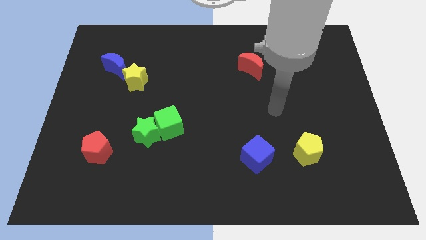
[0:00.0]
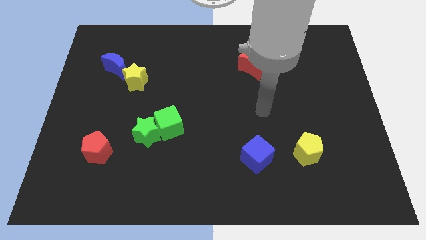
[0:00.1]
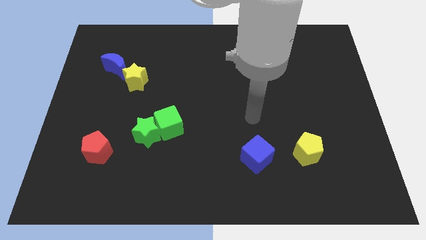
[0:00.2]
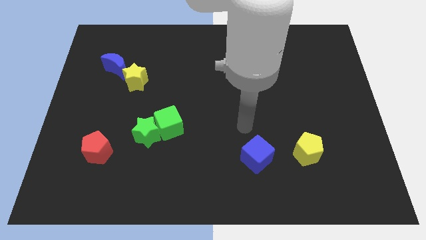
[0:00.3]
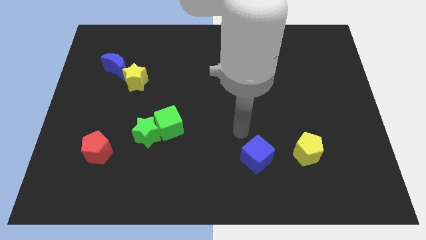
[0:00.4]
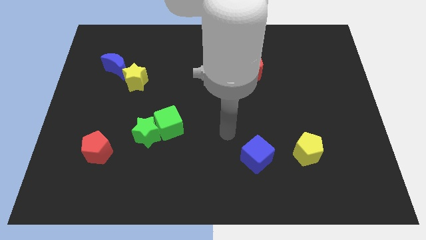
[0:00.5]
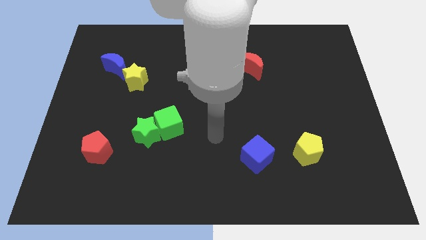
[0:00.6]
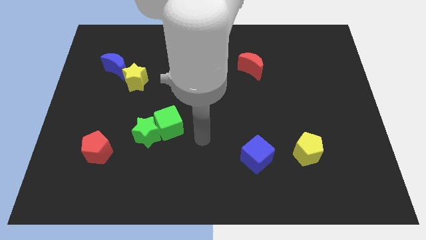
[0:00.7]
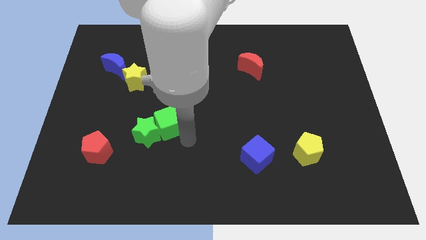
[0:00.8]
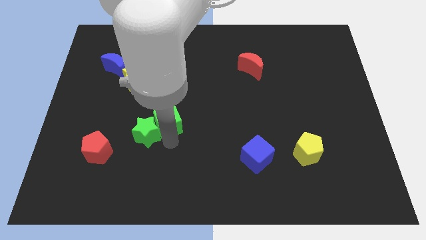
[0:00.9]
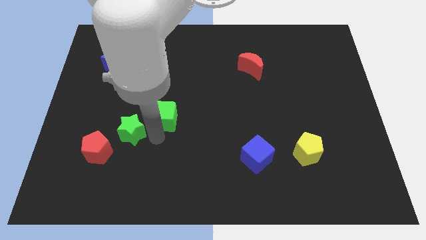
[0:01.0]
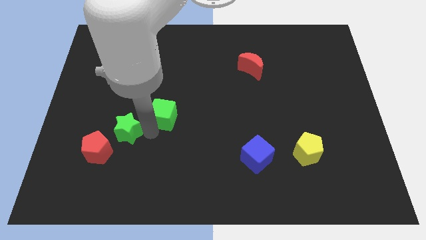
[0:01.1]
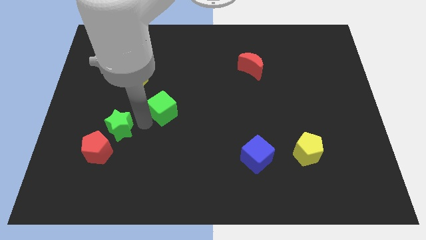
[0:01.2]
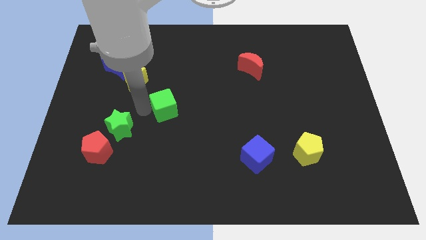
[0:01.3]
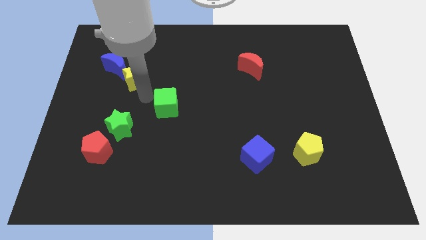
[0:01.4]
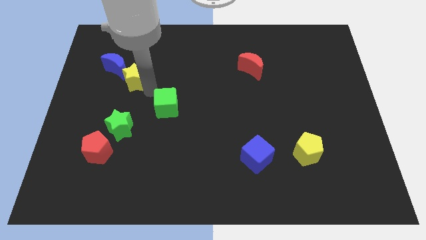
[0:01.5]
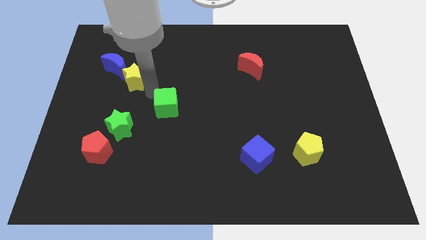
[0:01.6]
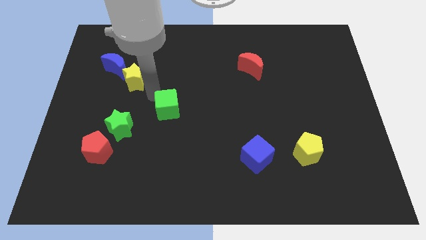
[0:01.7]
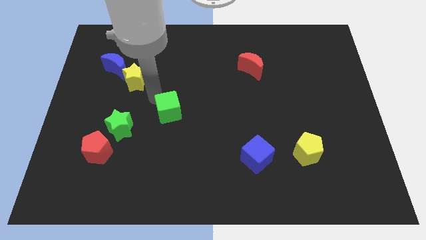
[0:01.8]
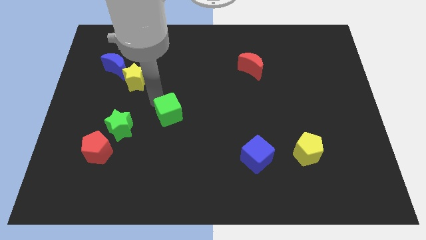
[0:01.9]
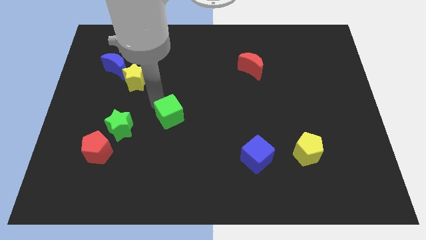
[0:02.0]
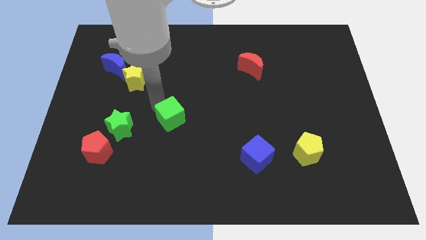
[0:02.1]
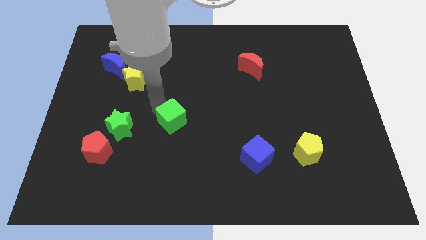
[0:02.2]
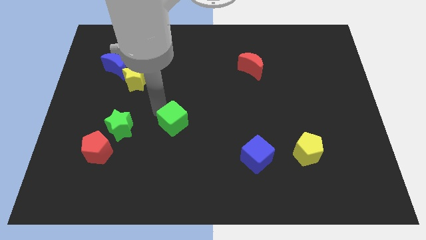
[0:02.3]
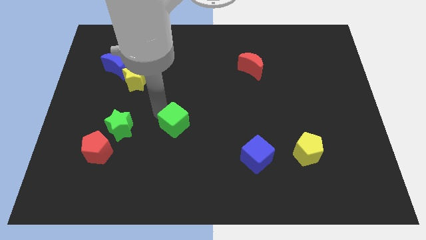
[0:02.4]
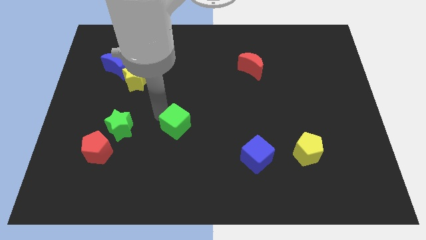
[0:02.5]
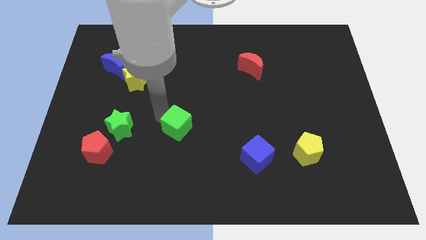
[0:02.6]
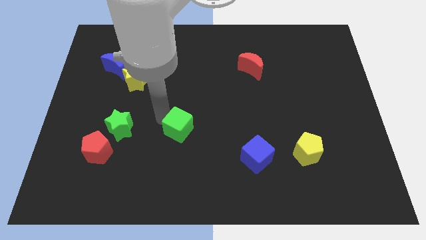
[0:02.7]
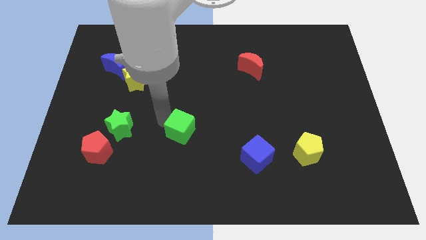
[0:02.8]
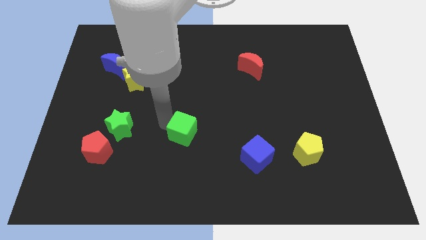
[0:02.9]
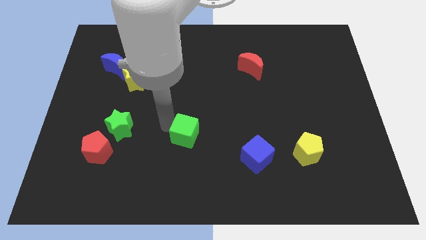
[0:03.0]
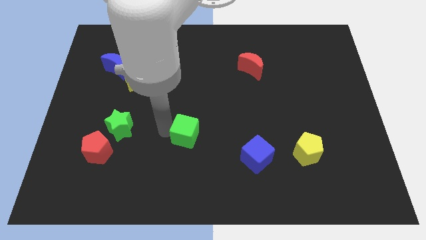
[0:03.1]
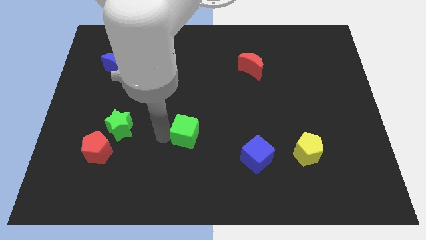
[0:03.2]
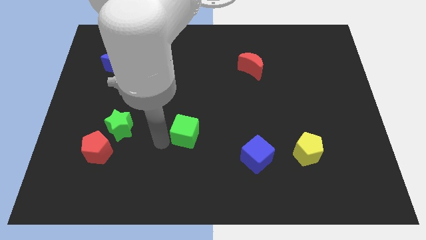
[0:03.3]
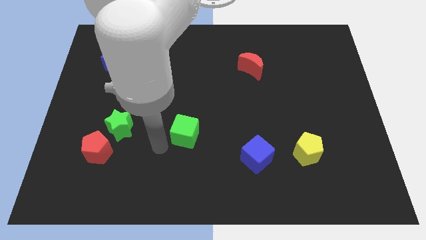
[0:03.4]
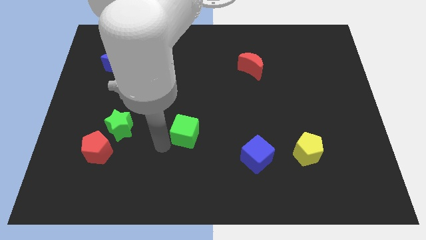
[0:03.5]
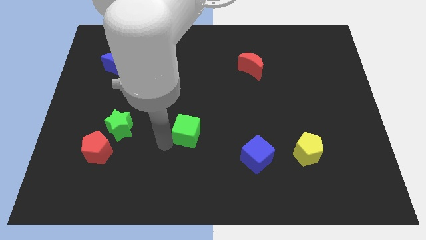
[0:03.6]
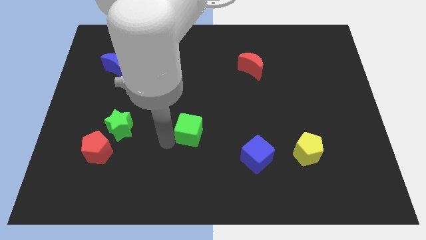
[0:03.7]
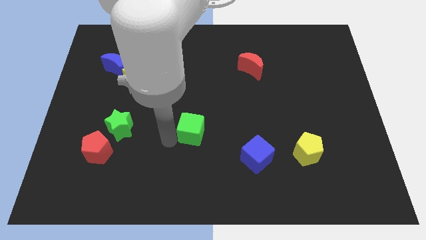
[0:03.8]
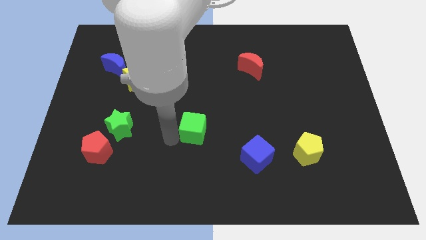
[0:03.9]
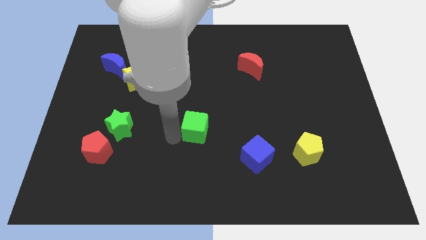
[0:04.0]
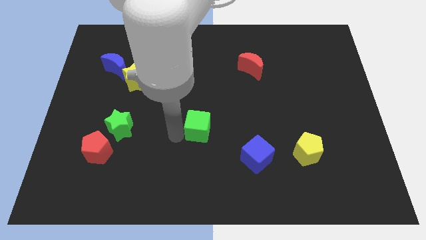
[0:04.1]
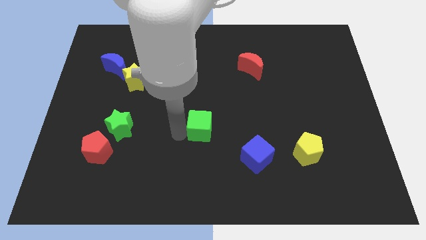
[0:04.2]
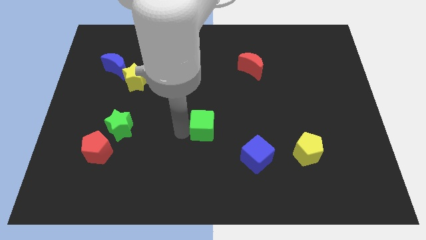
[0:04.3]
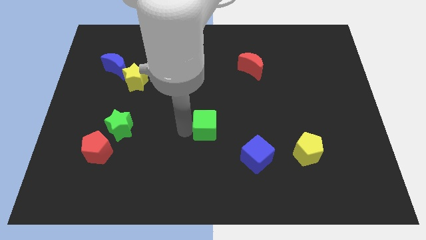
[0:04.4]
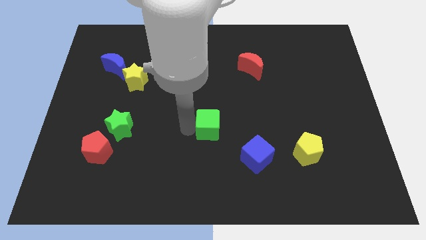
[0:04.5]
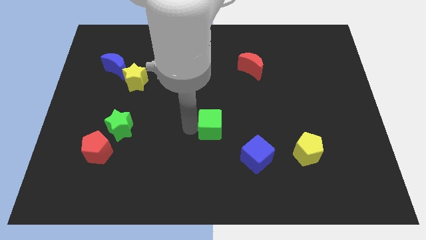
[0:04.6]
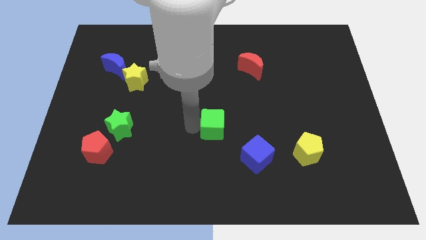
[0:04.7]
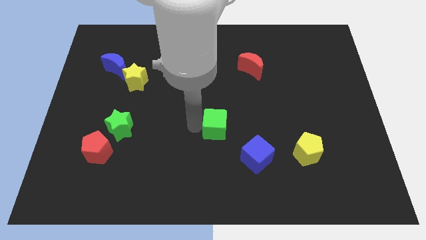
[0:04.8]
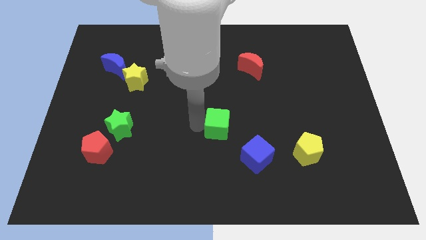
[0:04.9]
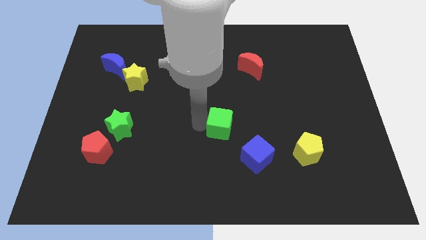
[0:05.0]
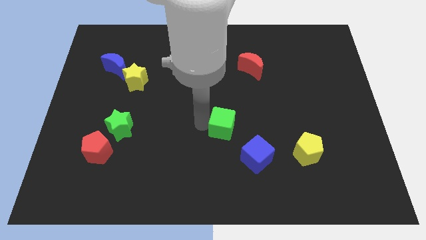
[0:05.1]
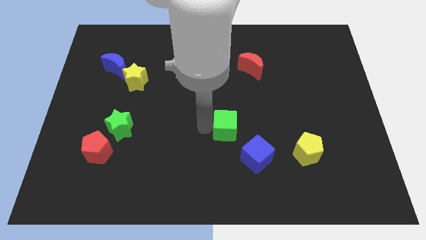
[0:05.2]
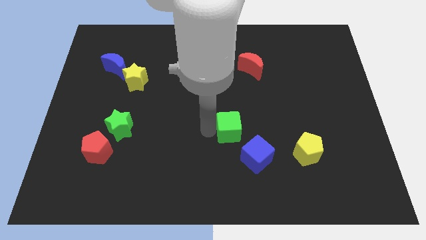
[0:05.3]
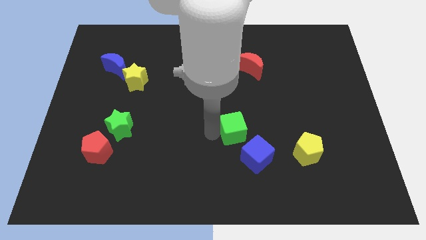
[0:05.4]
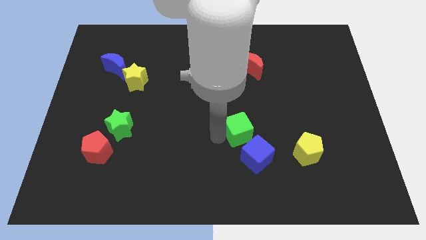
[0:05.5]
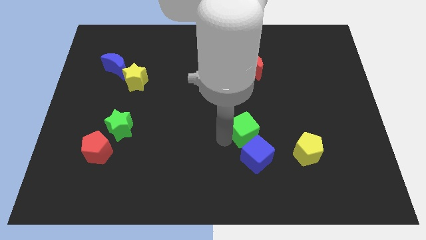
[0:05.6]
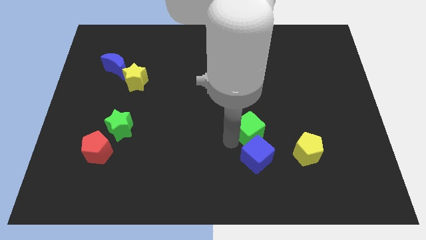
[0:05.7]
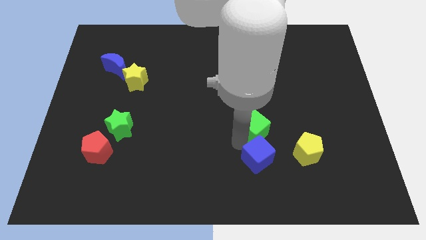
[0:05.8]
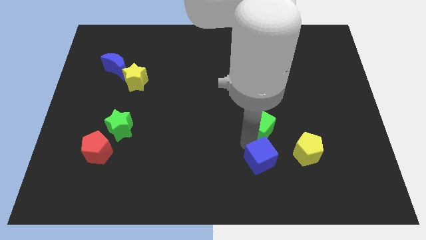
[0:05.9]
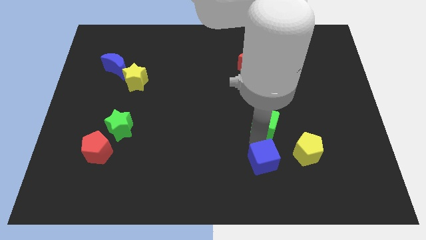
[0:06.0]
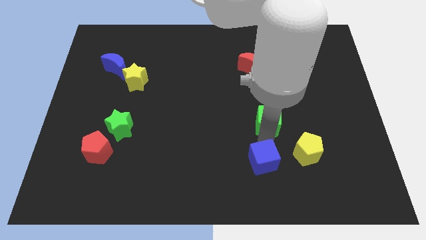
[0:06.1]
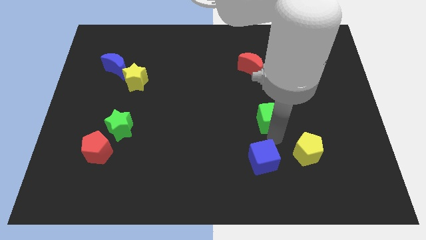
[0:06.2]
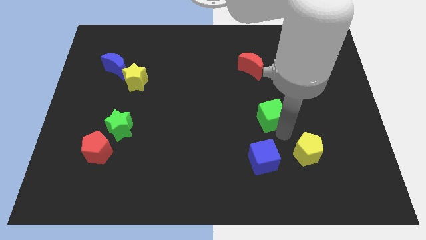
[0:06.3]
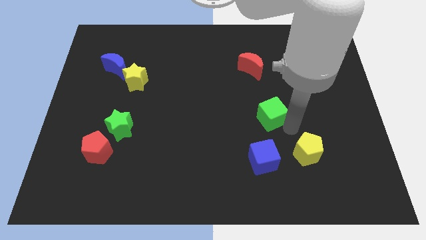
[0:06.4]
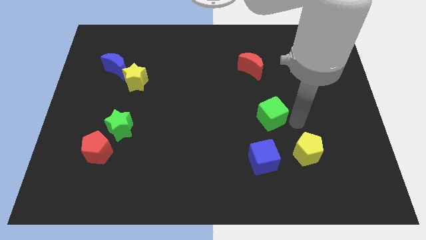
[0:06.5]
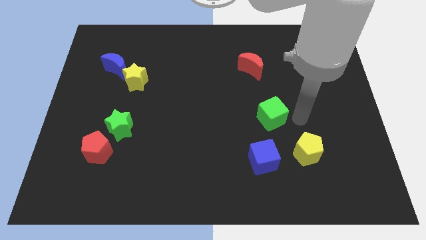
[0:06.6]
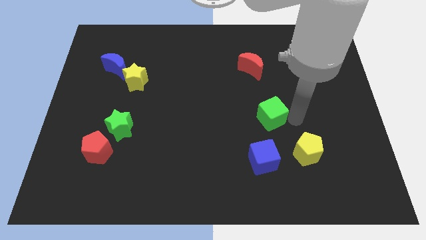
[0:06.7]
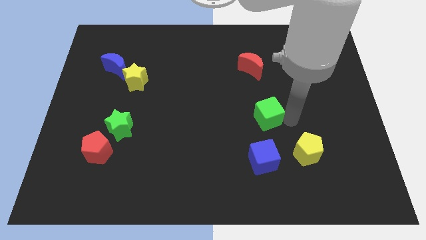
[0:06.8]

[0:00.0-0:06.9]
move the green cube to the bottom of the red moon
